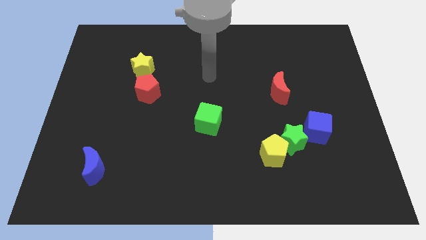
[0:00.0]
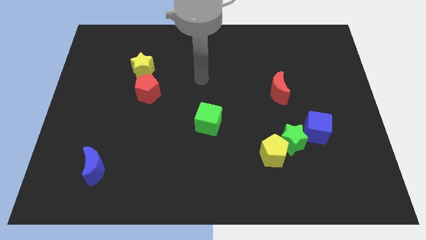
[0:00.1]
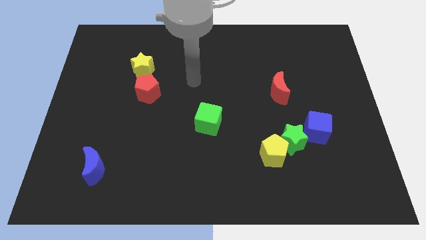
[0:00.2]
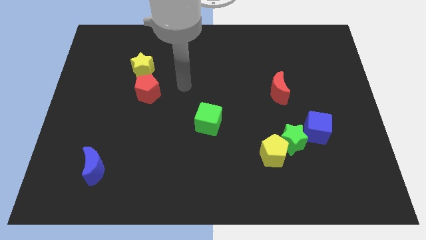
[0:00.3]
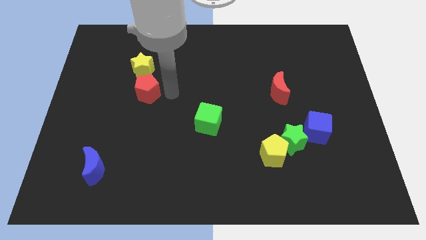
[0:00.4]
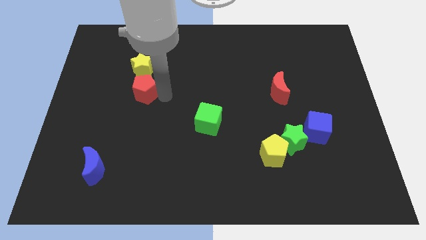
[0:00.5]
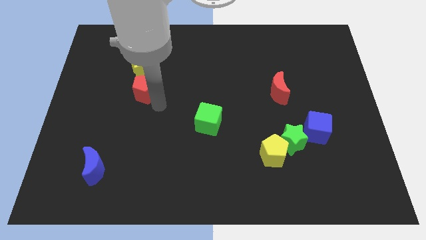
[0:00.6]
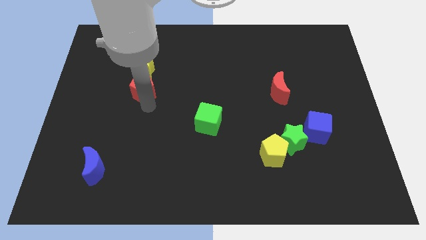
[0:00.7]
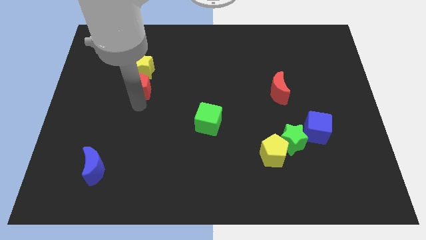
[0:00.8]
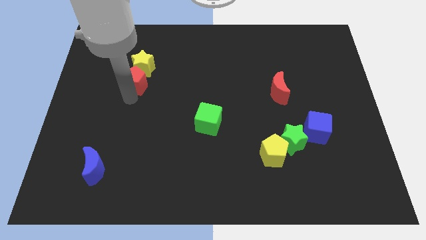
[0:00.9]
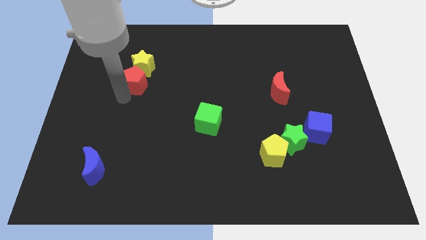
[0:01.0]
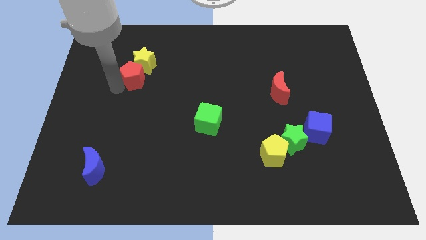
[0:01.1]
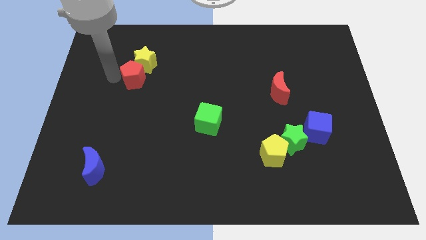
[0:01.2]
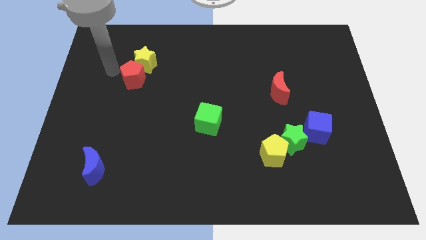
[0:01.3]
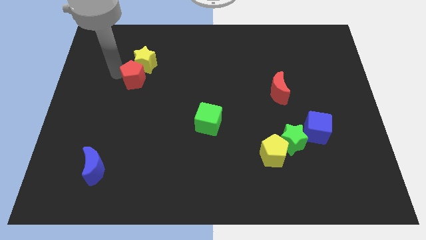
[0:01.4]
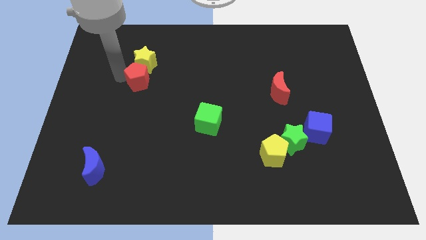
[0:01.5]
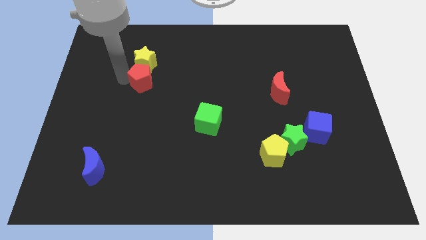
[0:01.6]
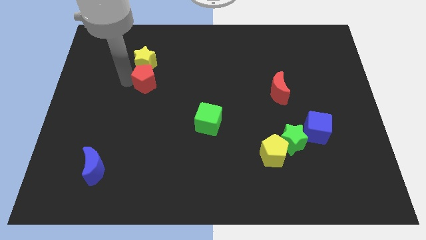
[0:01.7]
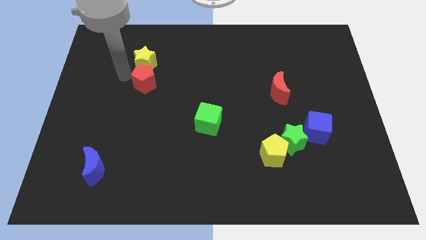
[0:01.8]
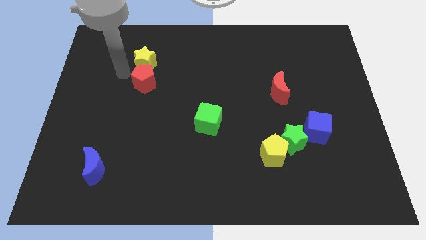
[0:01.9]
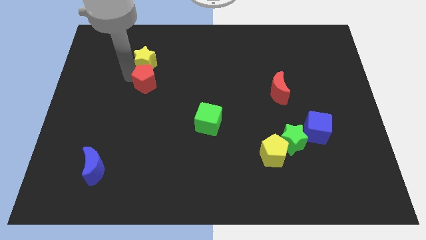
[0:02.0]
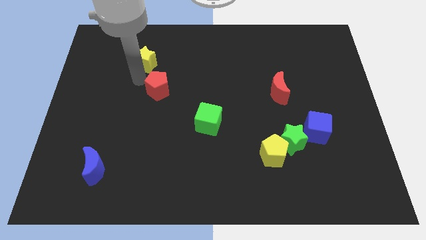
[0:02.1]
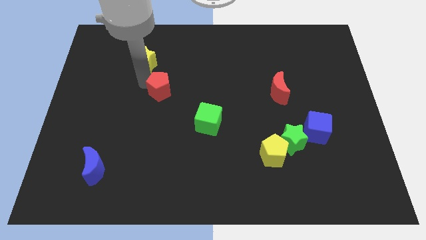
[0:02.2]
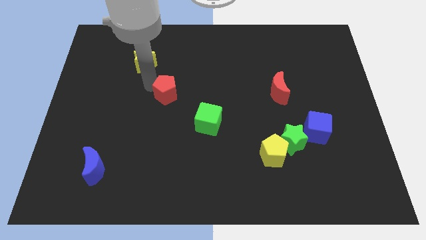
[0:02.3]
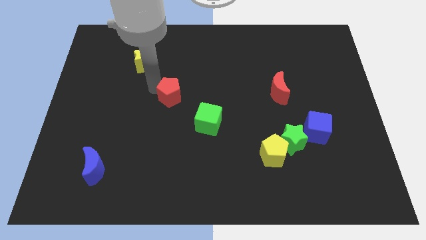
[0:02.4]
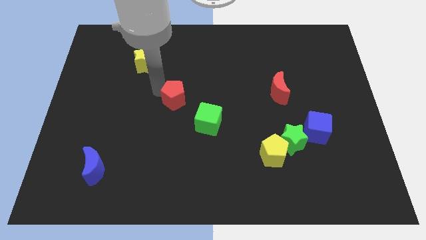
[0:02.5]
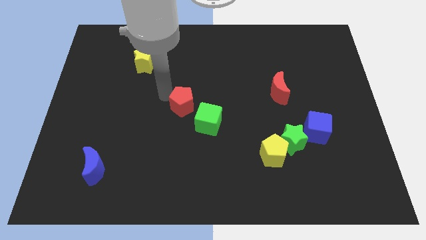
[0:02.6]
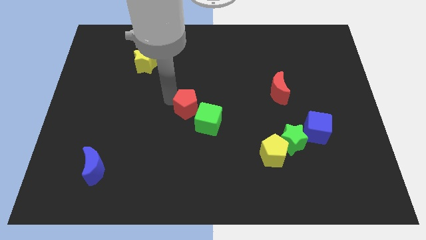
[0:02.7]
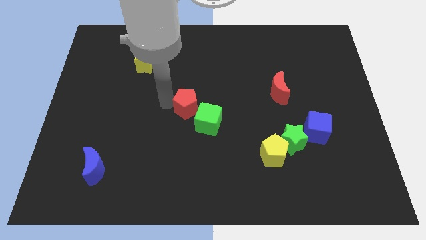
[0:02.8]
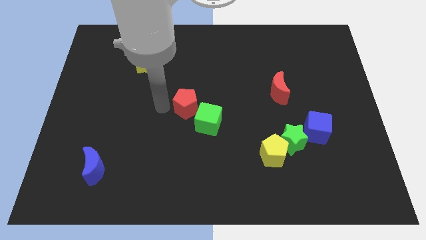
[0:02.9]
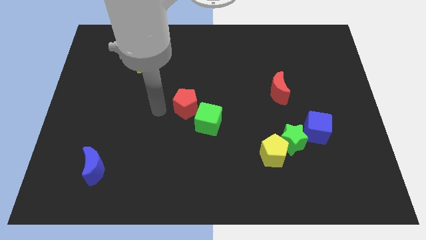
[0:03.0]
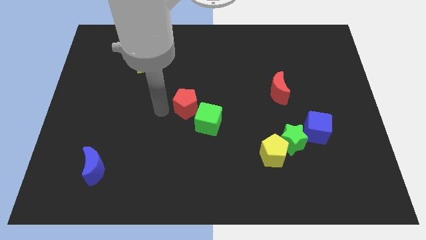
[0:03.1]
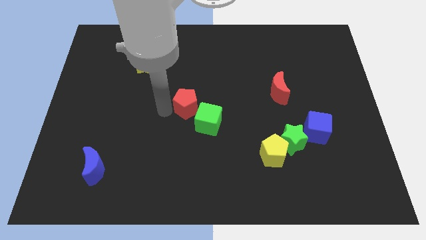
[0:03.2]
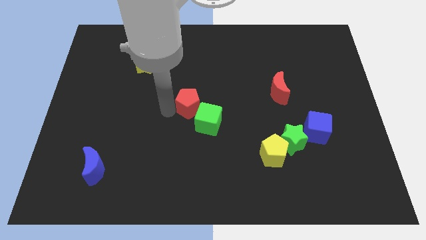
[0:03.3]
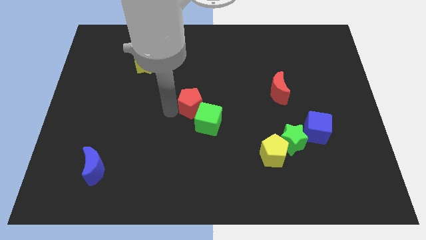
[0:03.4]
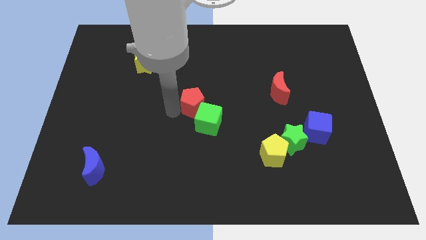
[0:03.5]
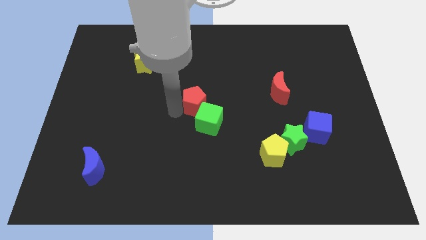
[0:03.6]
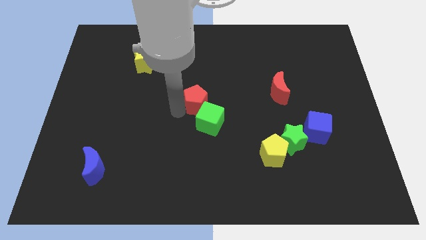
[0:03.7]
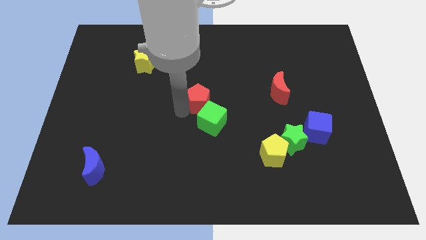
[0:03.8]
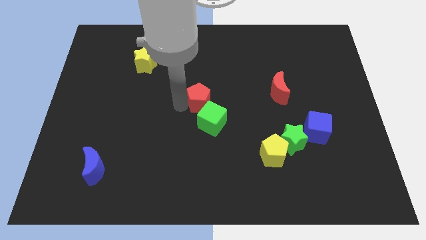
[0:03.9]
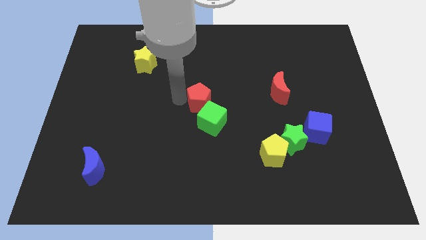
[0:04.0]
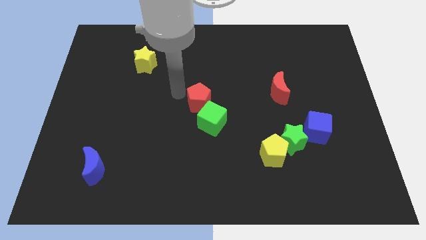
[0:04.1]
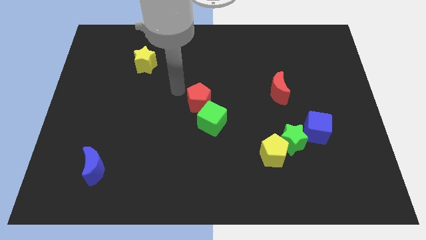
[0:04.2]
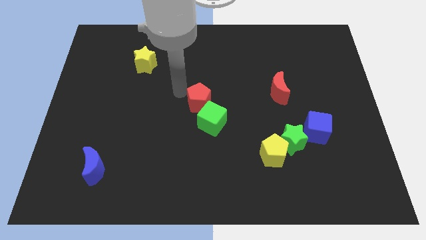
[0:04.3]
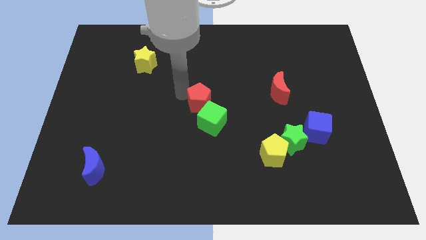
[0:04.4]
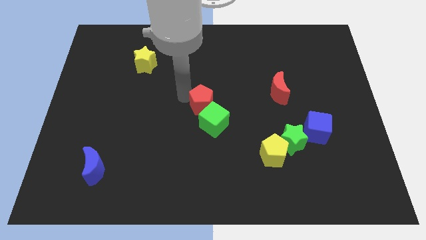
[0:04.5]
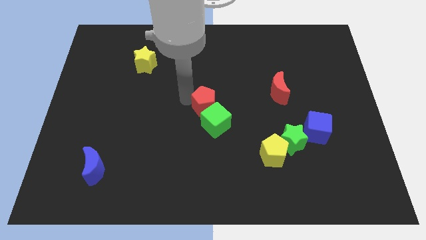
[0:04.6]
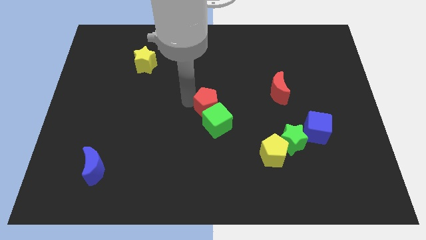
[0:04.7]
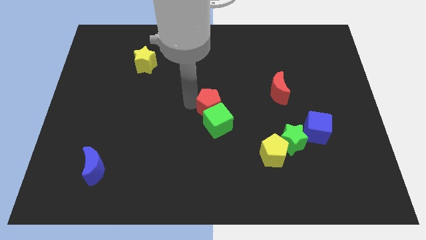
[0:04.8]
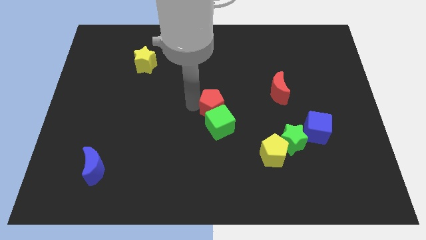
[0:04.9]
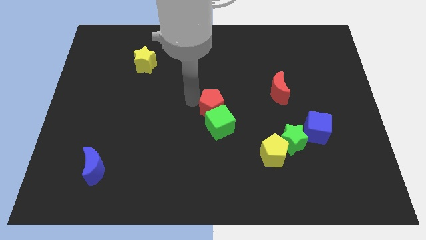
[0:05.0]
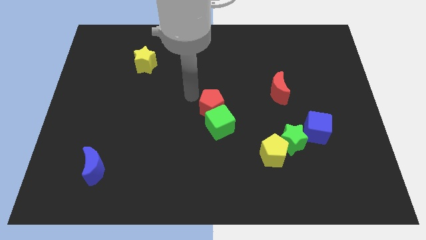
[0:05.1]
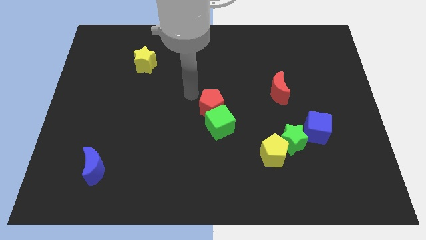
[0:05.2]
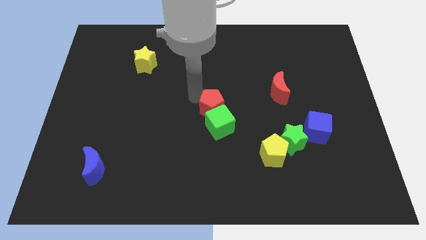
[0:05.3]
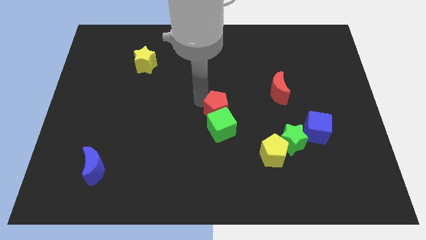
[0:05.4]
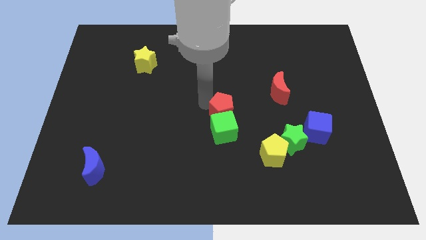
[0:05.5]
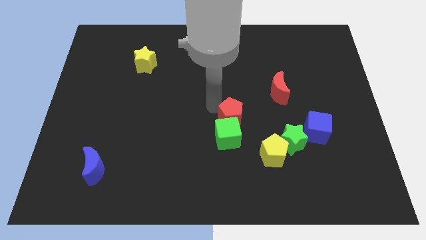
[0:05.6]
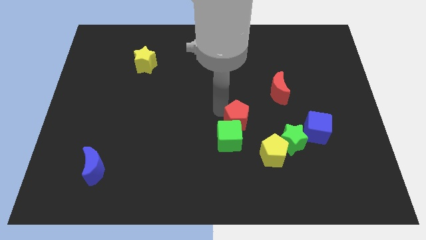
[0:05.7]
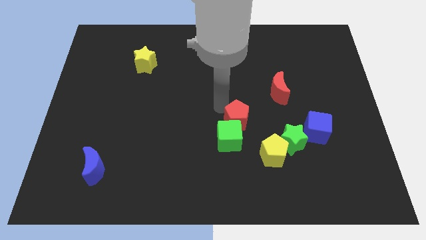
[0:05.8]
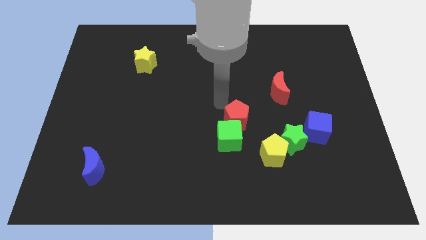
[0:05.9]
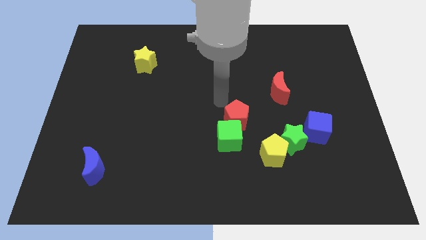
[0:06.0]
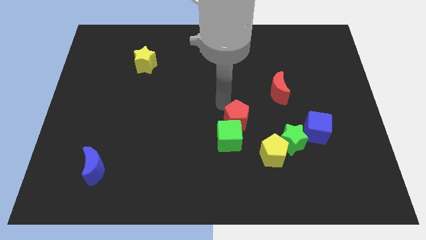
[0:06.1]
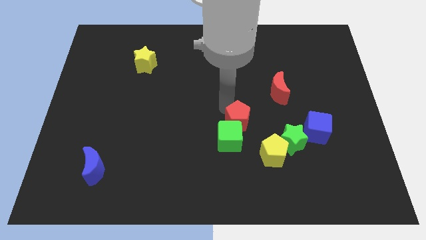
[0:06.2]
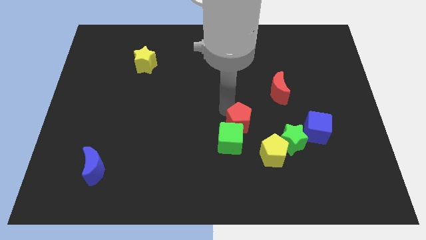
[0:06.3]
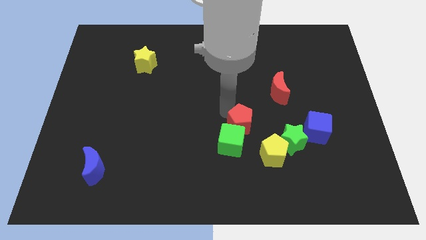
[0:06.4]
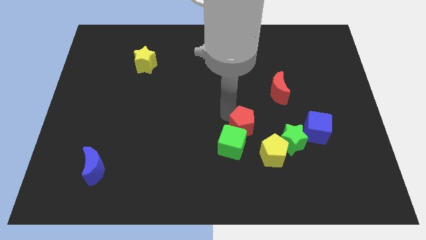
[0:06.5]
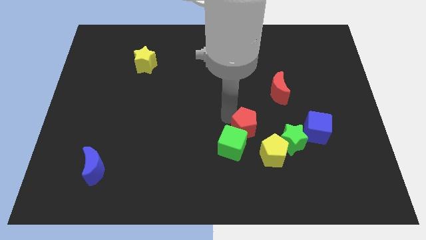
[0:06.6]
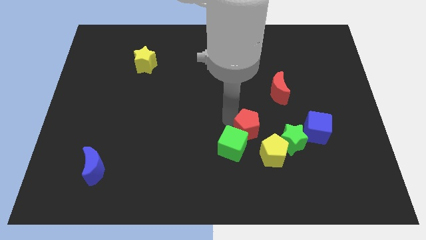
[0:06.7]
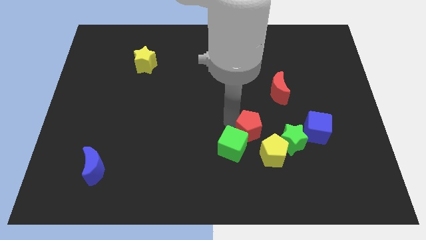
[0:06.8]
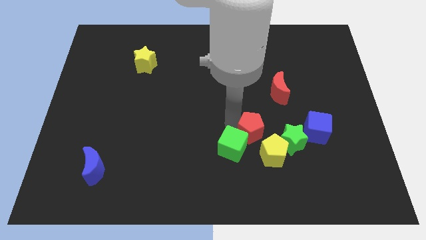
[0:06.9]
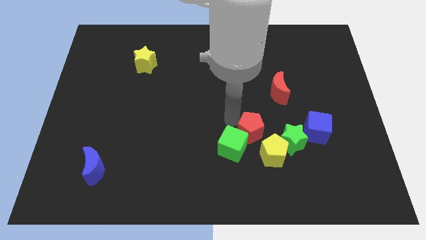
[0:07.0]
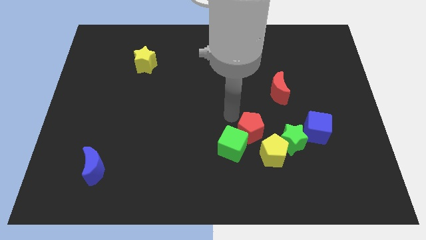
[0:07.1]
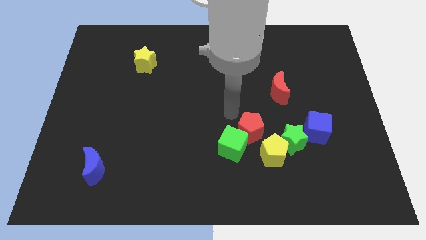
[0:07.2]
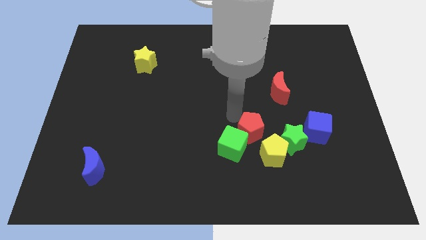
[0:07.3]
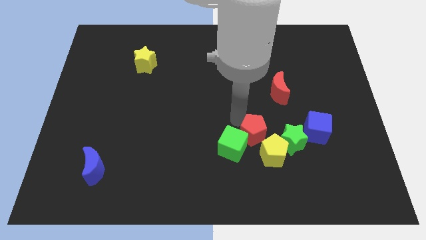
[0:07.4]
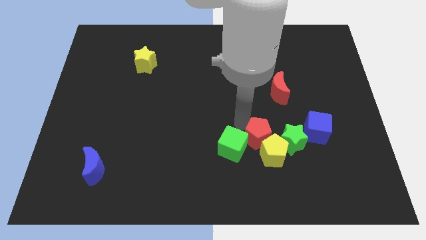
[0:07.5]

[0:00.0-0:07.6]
slide the red pentagon next to the yellow pentagon
